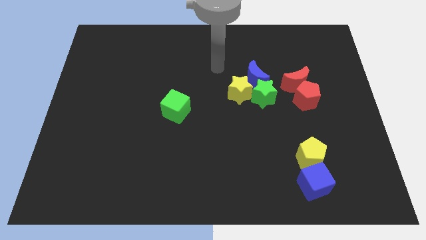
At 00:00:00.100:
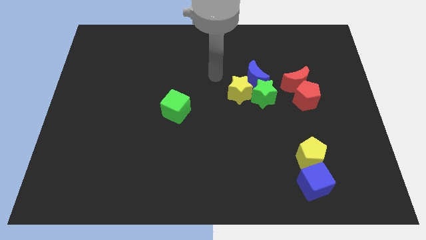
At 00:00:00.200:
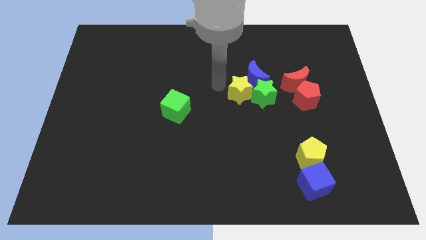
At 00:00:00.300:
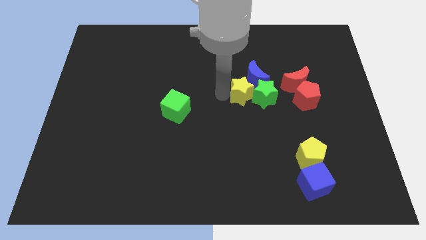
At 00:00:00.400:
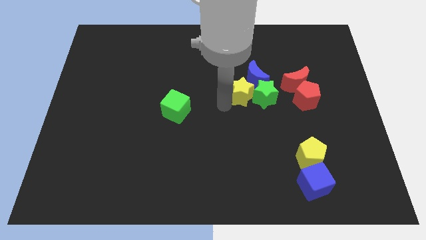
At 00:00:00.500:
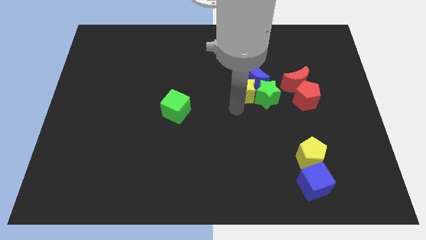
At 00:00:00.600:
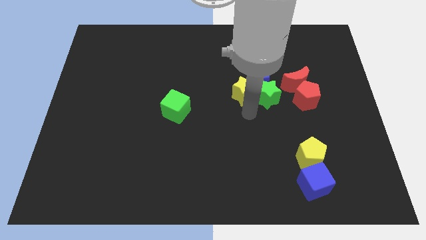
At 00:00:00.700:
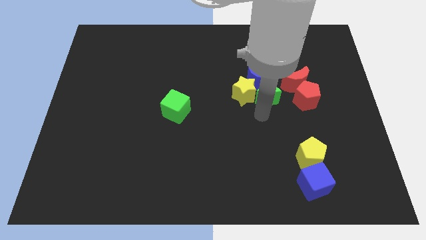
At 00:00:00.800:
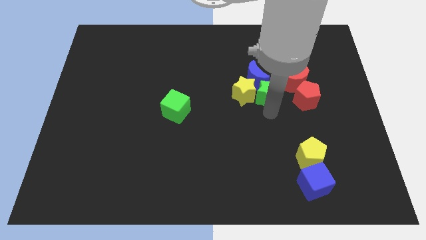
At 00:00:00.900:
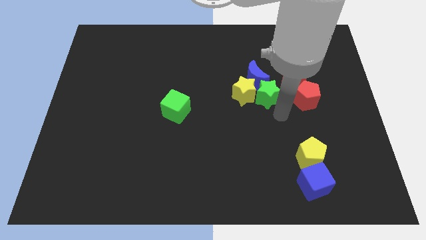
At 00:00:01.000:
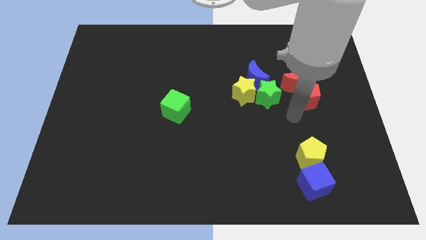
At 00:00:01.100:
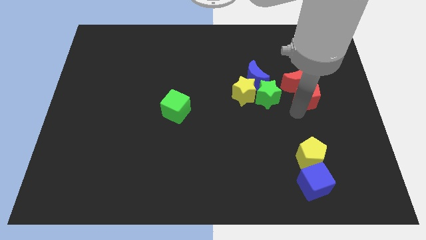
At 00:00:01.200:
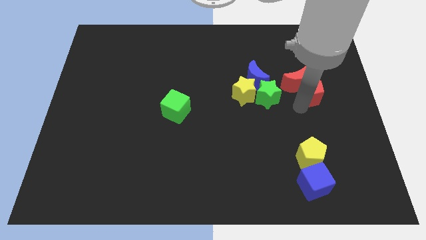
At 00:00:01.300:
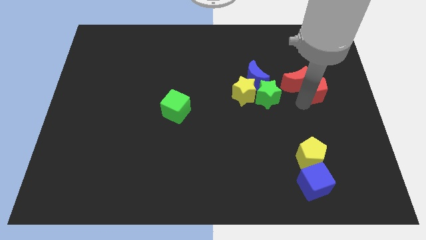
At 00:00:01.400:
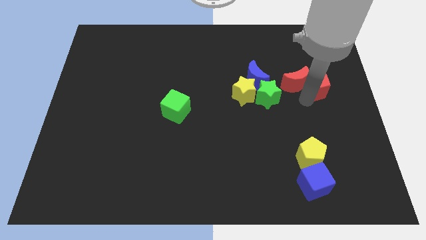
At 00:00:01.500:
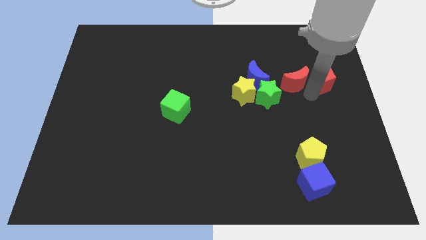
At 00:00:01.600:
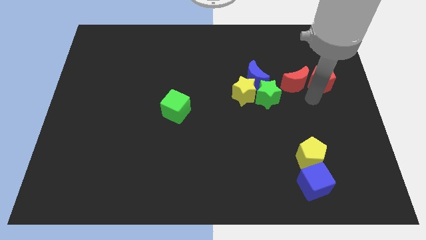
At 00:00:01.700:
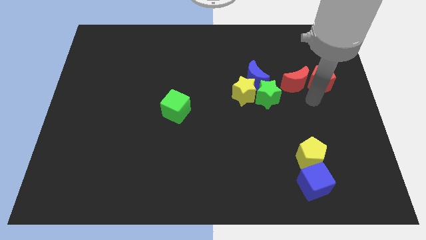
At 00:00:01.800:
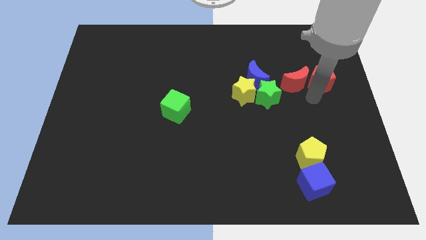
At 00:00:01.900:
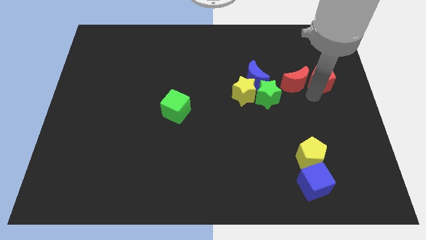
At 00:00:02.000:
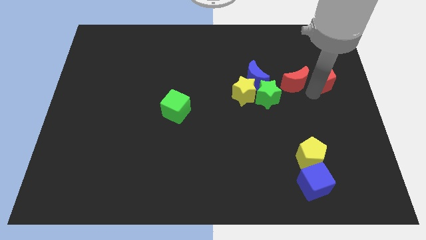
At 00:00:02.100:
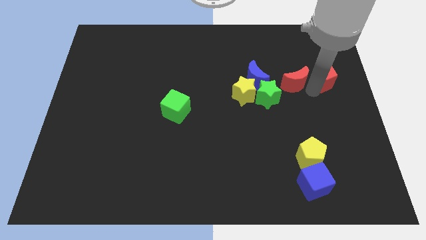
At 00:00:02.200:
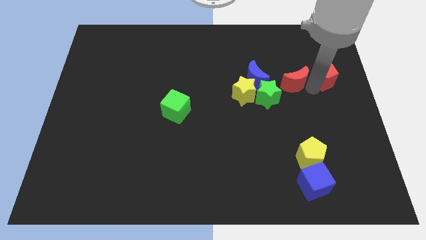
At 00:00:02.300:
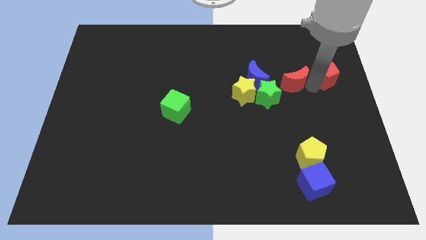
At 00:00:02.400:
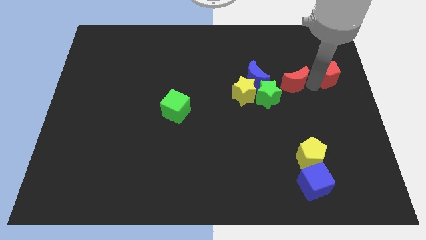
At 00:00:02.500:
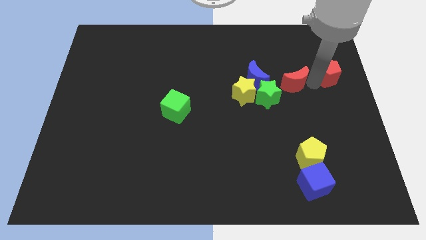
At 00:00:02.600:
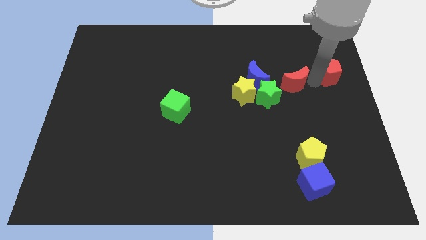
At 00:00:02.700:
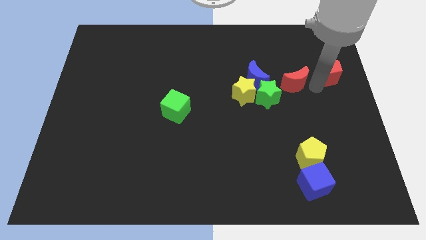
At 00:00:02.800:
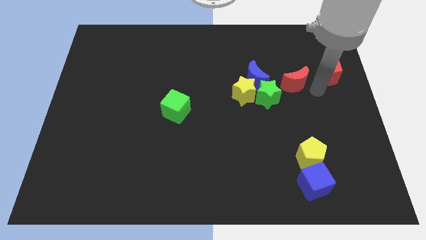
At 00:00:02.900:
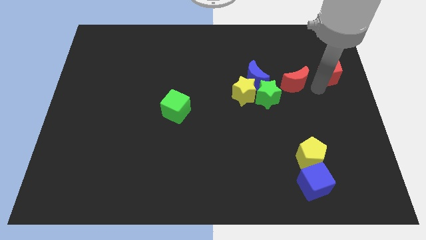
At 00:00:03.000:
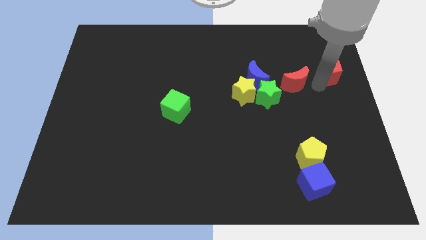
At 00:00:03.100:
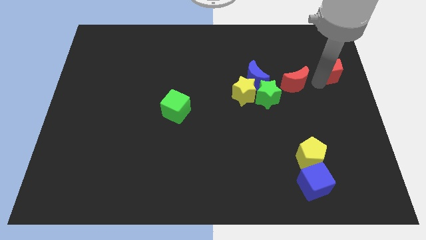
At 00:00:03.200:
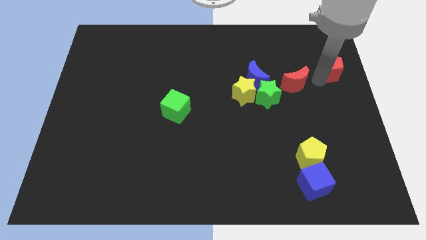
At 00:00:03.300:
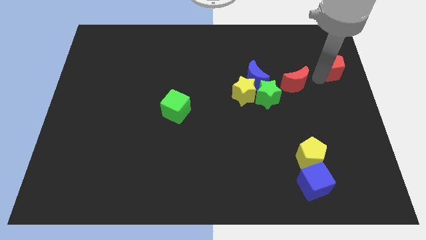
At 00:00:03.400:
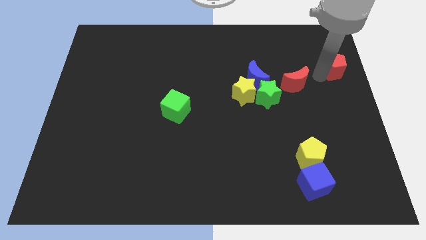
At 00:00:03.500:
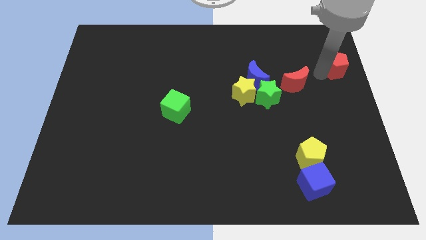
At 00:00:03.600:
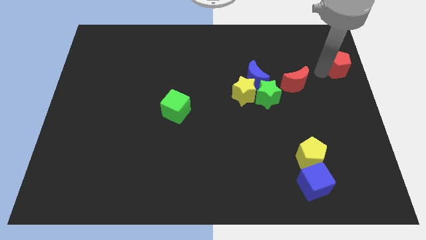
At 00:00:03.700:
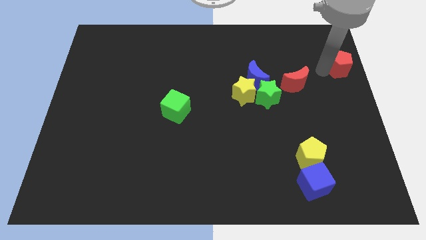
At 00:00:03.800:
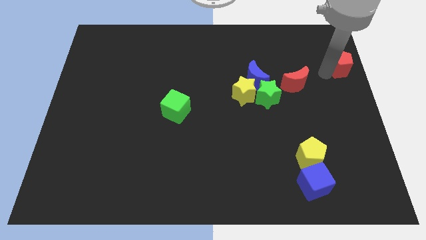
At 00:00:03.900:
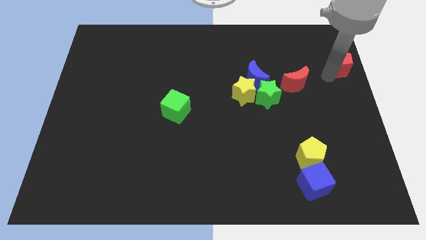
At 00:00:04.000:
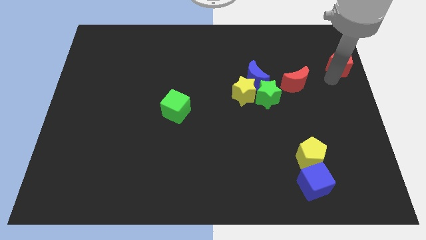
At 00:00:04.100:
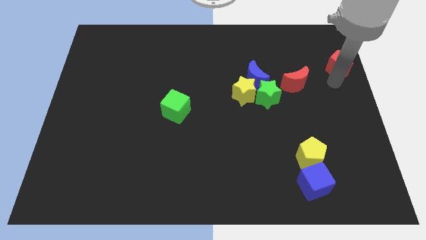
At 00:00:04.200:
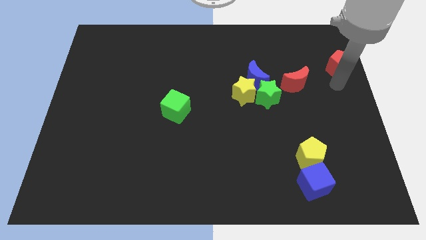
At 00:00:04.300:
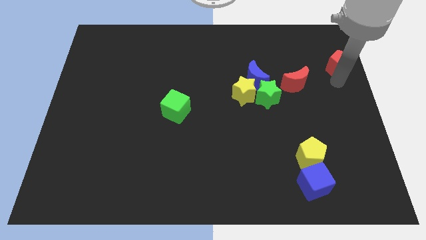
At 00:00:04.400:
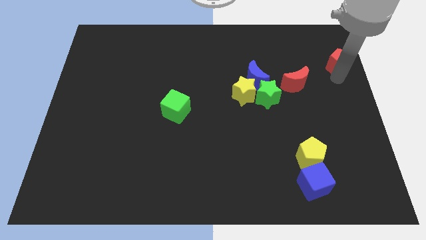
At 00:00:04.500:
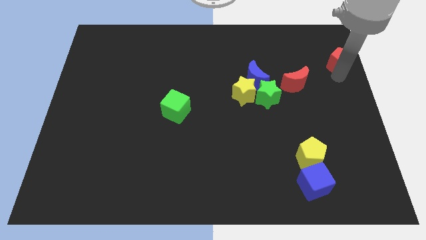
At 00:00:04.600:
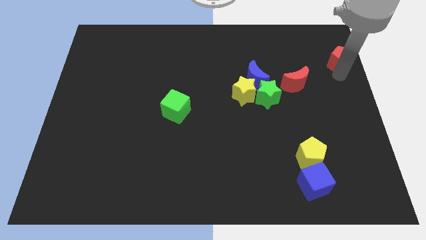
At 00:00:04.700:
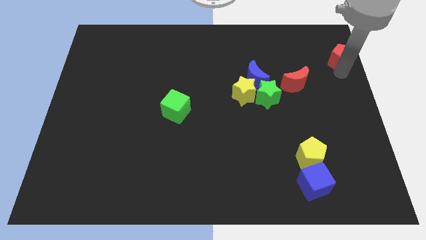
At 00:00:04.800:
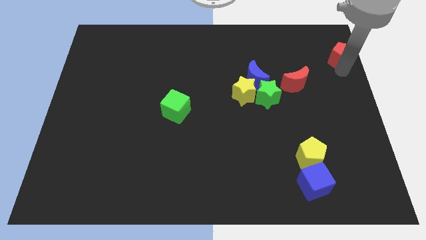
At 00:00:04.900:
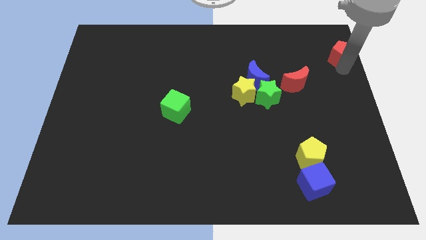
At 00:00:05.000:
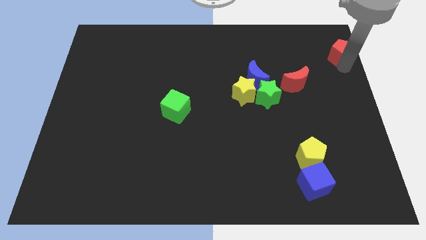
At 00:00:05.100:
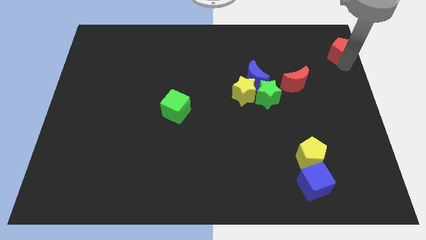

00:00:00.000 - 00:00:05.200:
slide the red pentagon to the upper right corner

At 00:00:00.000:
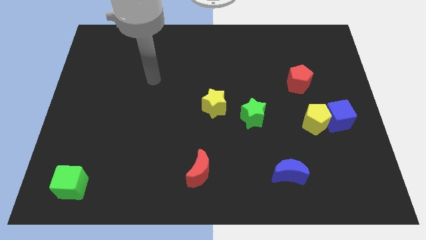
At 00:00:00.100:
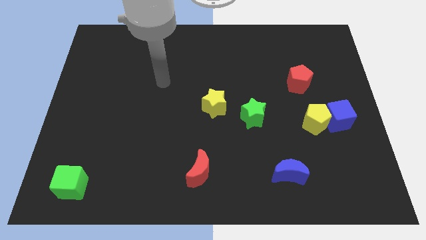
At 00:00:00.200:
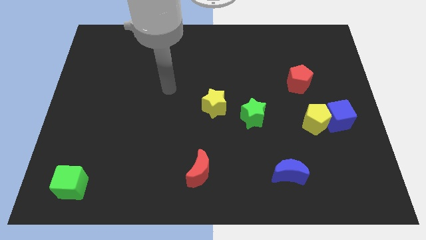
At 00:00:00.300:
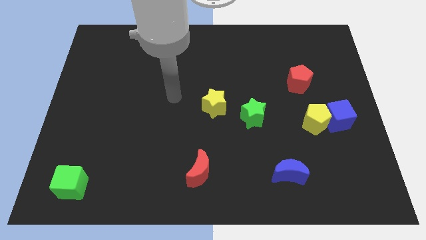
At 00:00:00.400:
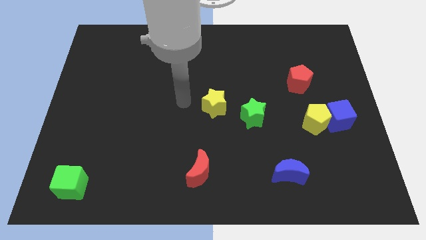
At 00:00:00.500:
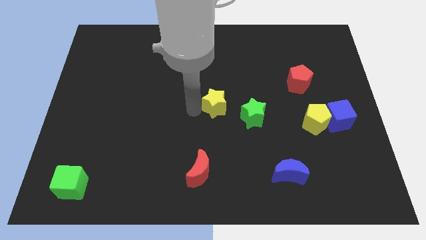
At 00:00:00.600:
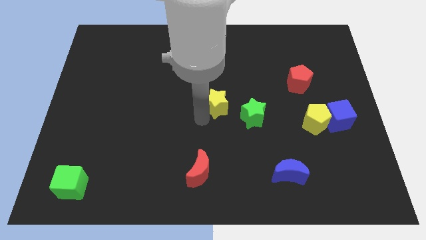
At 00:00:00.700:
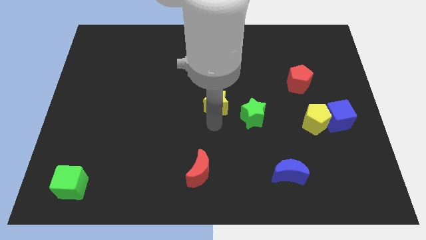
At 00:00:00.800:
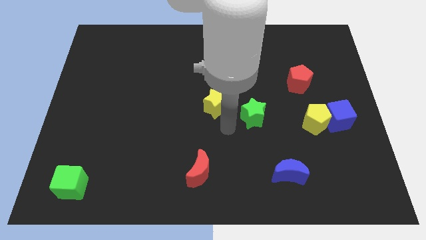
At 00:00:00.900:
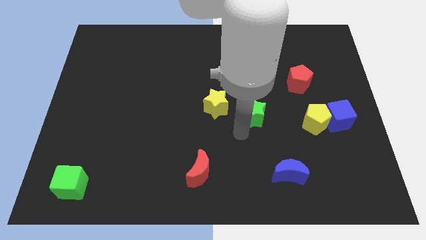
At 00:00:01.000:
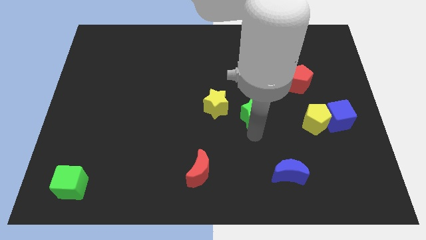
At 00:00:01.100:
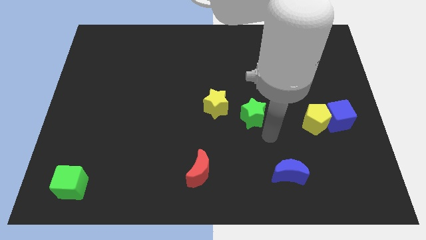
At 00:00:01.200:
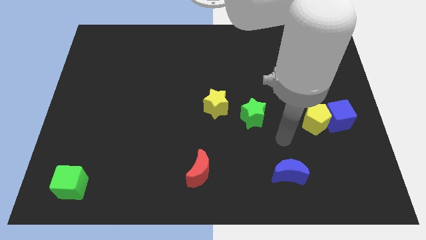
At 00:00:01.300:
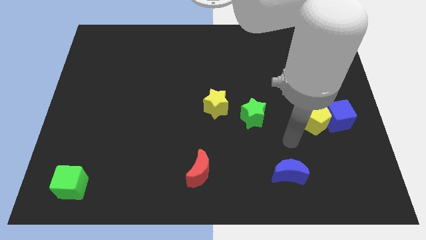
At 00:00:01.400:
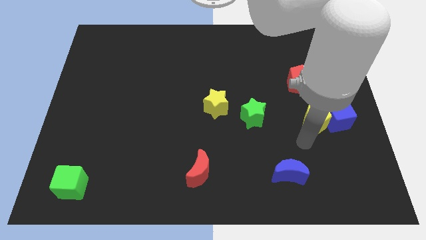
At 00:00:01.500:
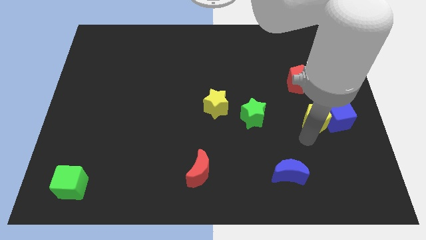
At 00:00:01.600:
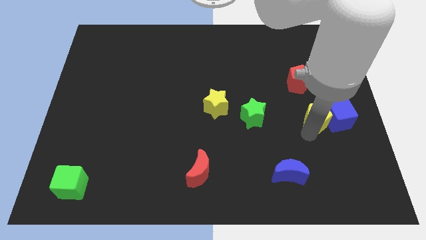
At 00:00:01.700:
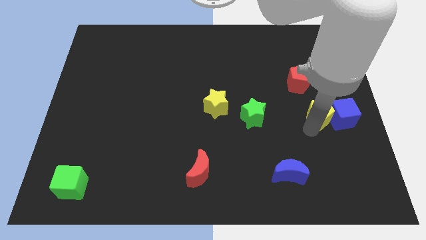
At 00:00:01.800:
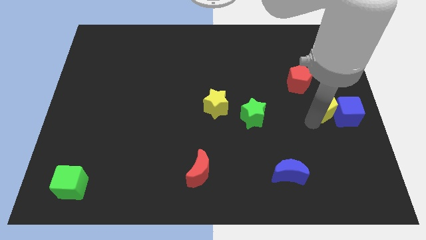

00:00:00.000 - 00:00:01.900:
slide the yellow pentagon to the right side
